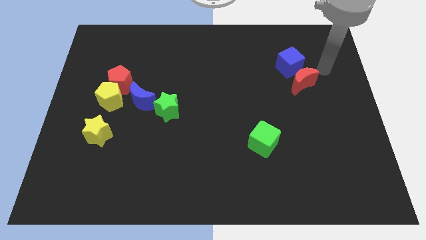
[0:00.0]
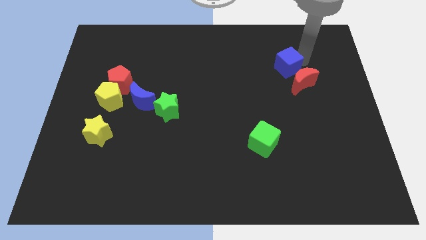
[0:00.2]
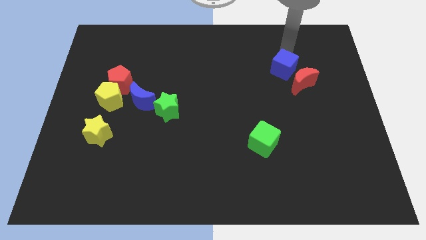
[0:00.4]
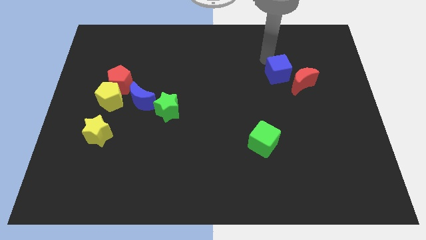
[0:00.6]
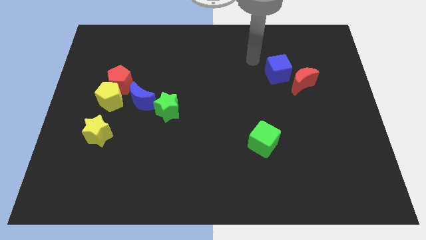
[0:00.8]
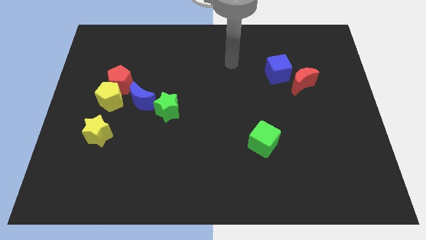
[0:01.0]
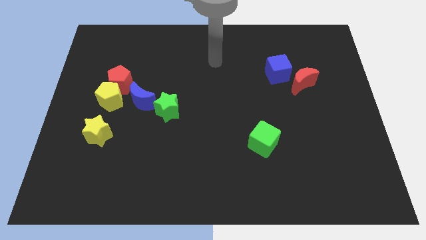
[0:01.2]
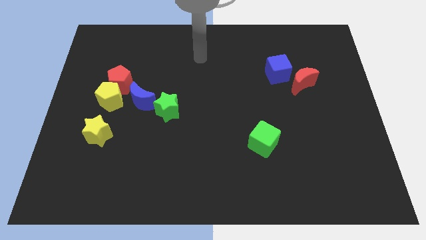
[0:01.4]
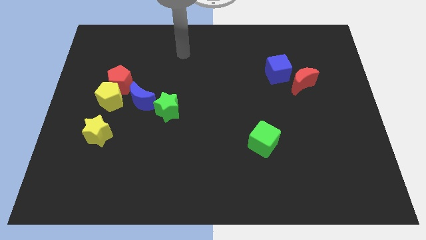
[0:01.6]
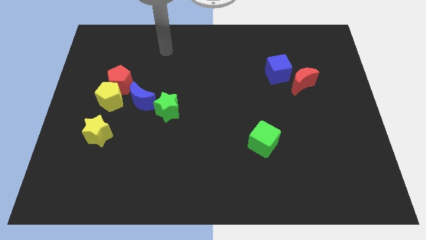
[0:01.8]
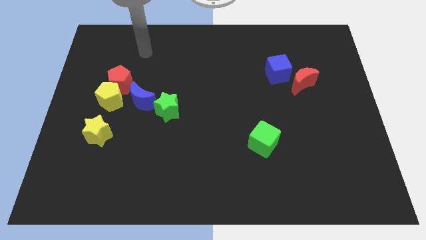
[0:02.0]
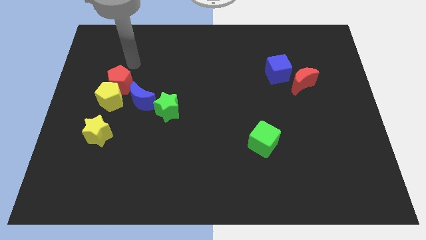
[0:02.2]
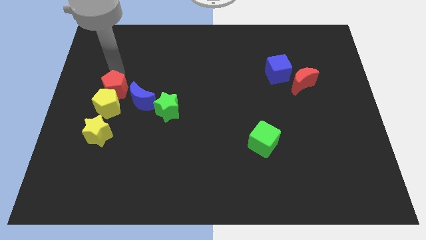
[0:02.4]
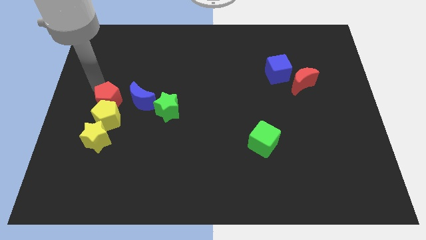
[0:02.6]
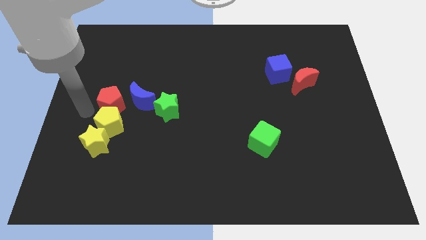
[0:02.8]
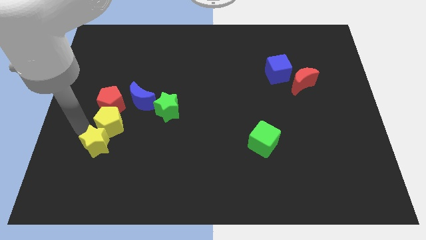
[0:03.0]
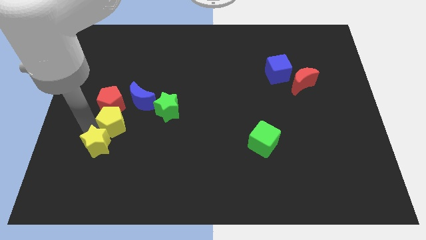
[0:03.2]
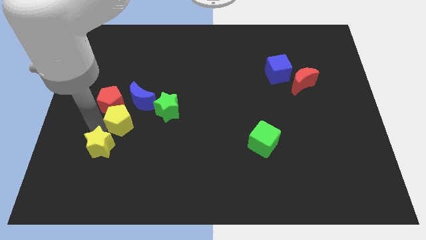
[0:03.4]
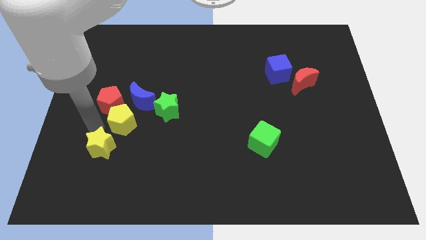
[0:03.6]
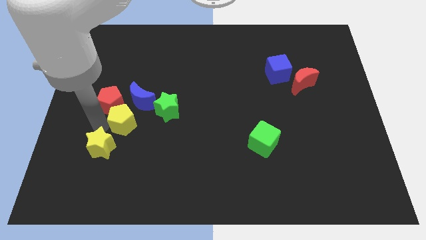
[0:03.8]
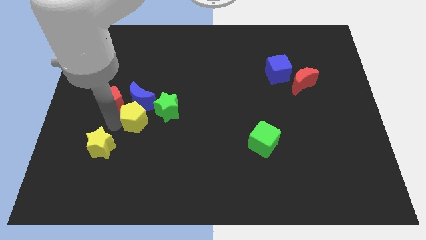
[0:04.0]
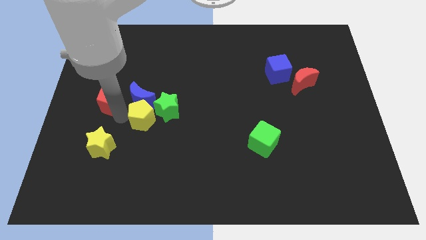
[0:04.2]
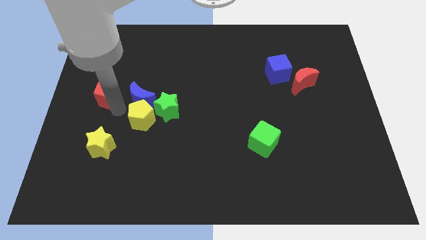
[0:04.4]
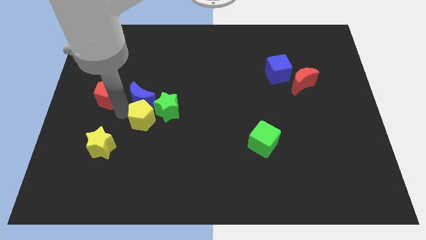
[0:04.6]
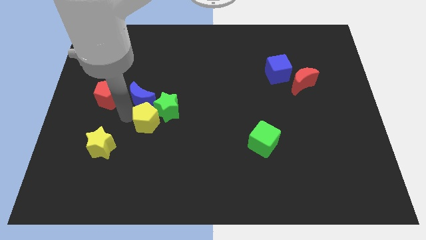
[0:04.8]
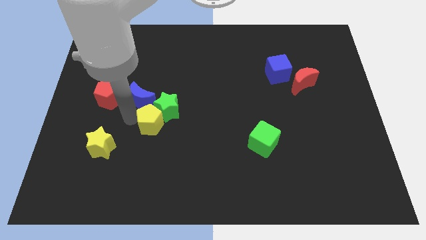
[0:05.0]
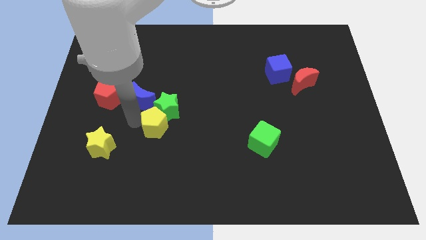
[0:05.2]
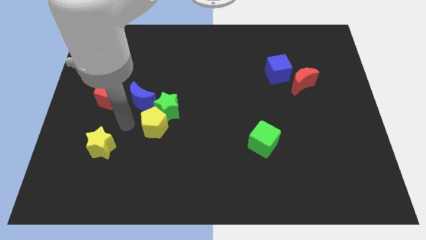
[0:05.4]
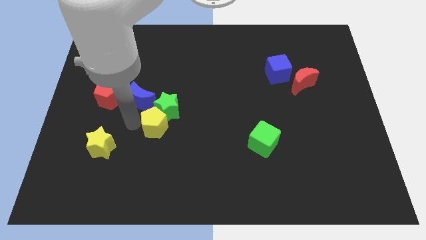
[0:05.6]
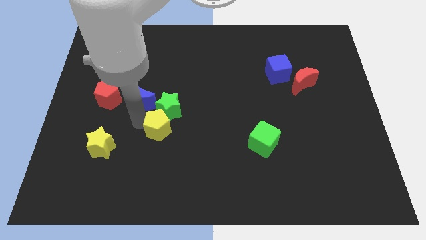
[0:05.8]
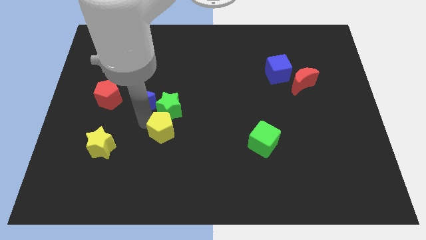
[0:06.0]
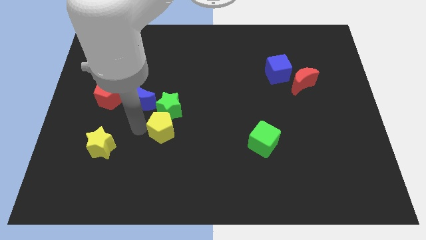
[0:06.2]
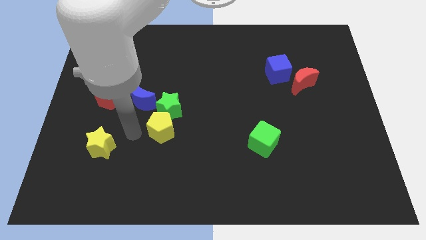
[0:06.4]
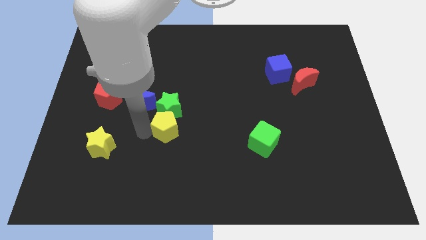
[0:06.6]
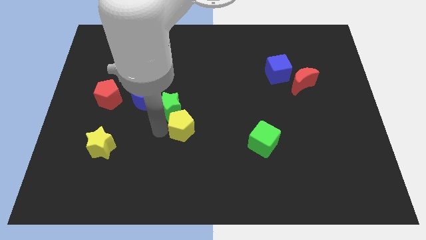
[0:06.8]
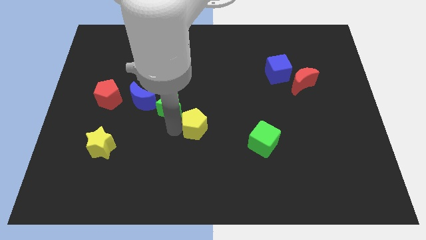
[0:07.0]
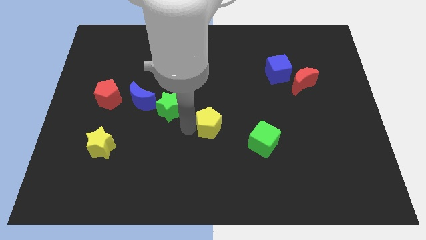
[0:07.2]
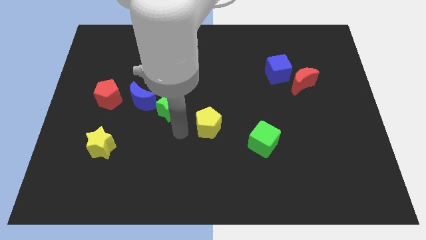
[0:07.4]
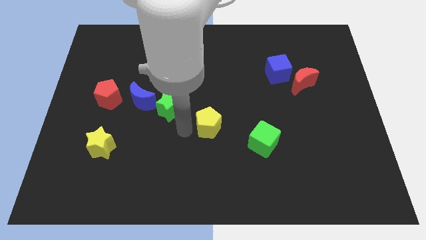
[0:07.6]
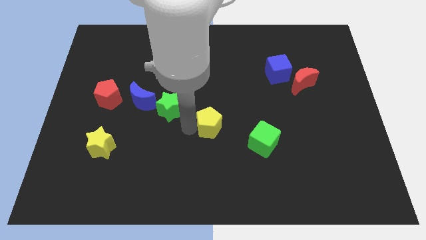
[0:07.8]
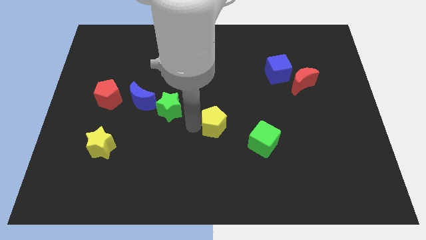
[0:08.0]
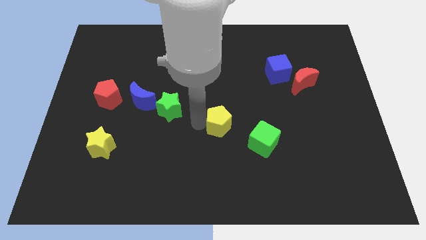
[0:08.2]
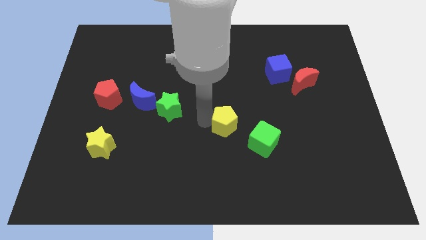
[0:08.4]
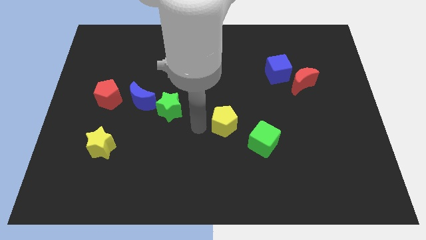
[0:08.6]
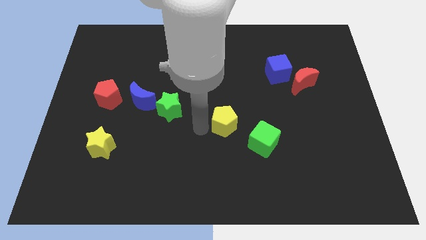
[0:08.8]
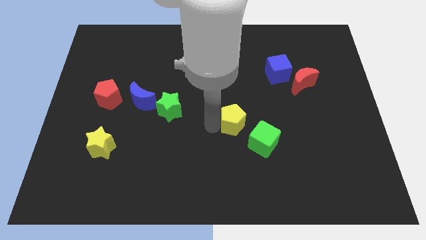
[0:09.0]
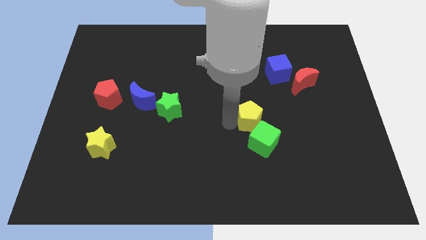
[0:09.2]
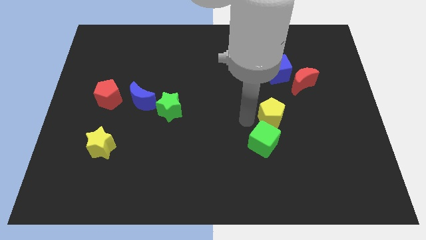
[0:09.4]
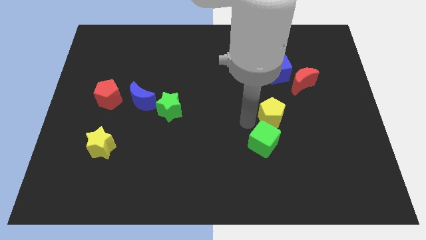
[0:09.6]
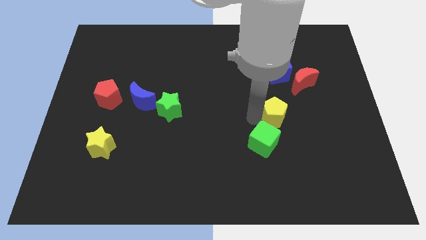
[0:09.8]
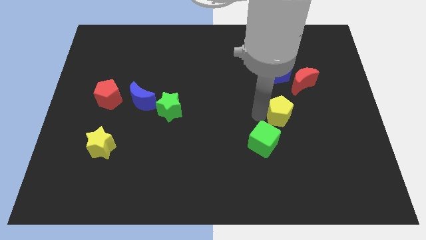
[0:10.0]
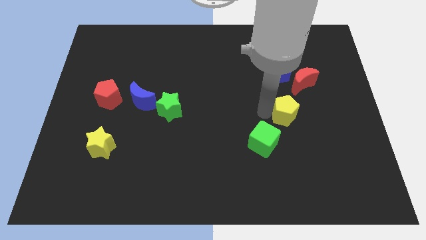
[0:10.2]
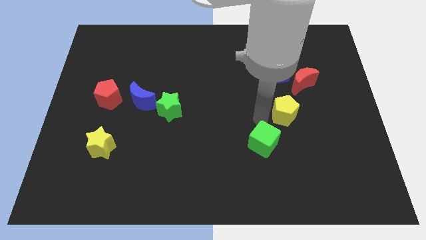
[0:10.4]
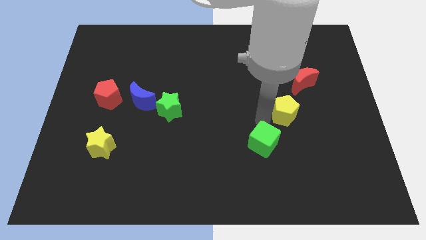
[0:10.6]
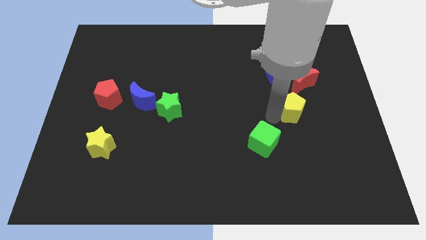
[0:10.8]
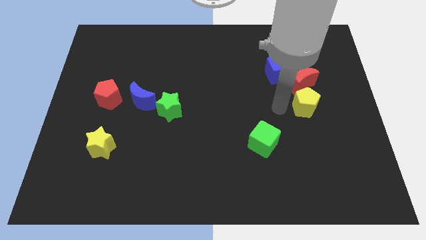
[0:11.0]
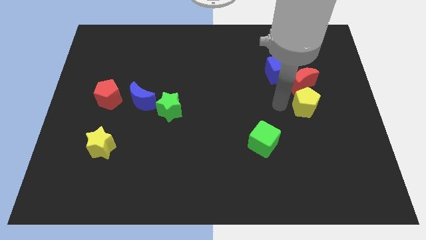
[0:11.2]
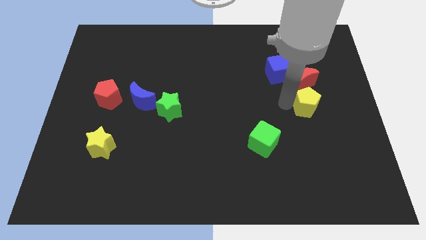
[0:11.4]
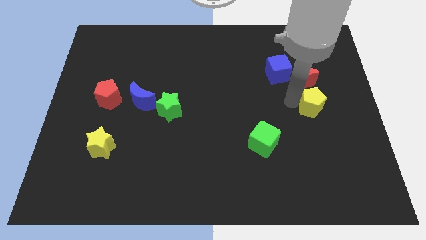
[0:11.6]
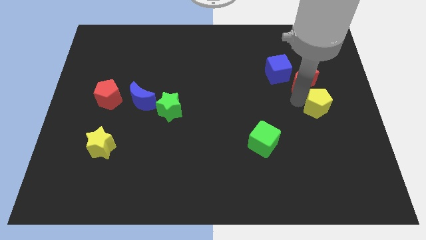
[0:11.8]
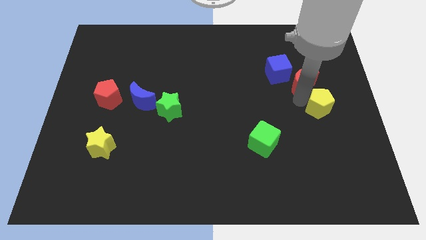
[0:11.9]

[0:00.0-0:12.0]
push the yellow pentagon to the right side
